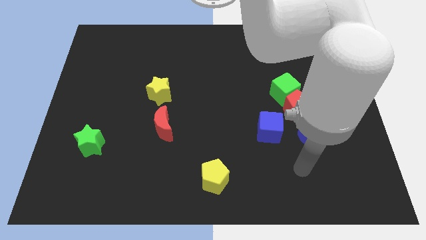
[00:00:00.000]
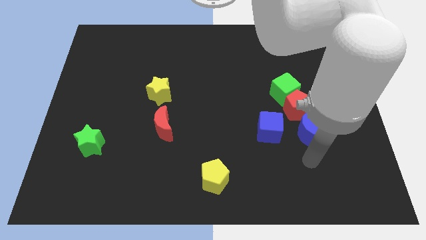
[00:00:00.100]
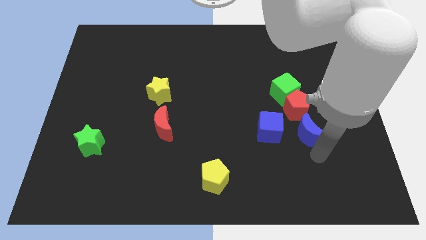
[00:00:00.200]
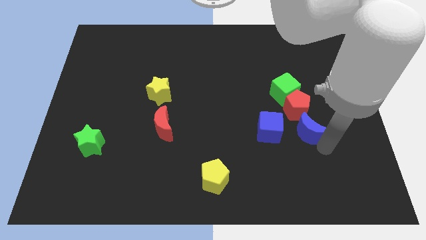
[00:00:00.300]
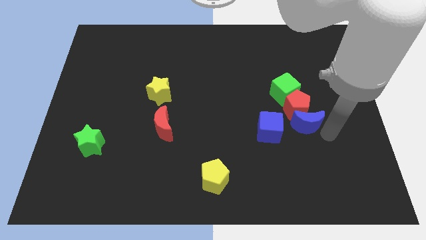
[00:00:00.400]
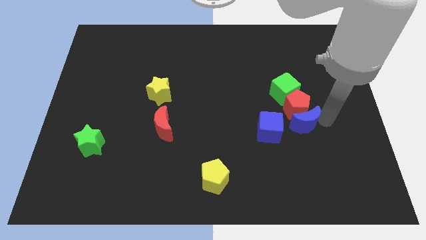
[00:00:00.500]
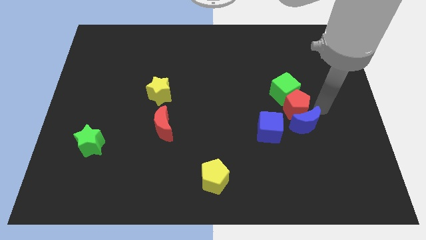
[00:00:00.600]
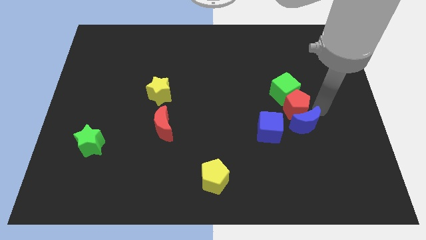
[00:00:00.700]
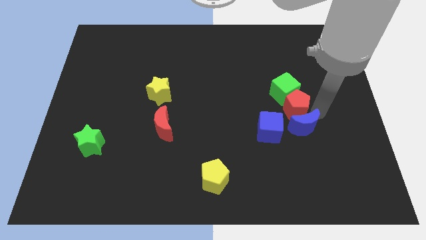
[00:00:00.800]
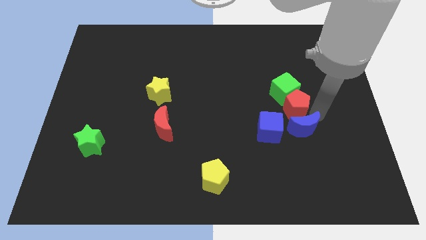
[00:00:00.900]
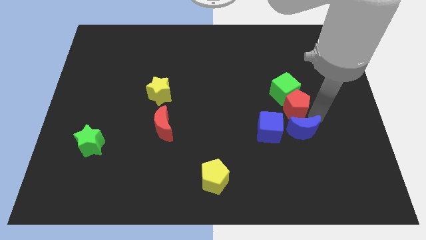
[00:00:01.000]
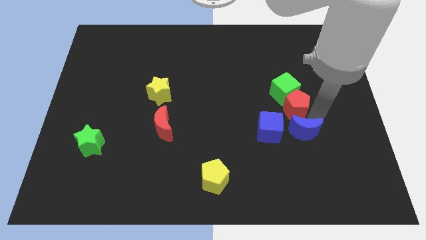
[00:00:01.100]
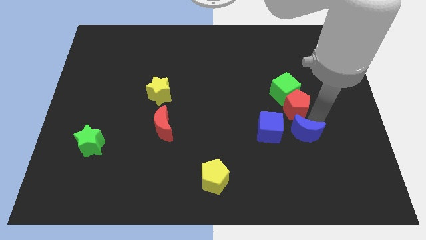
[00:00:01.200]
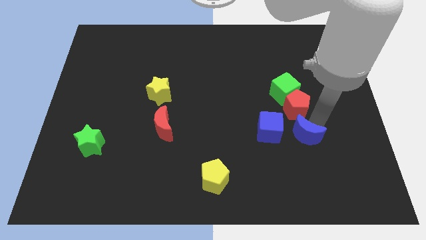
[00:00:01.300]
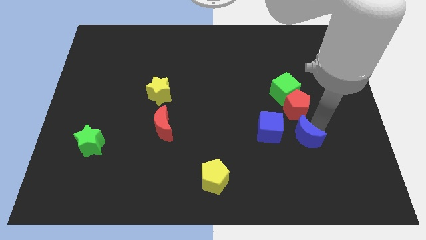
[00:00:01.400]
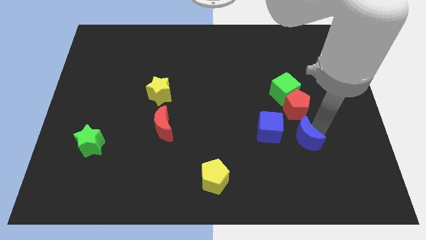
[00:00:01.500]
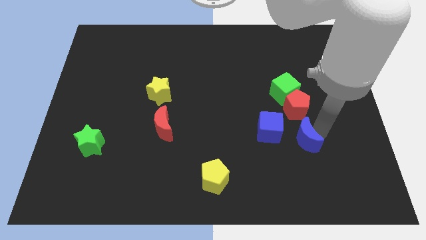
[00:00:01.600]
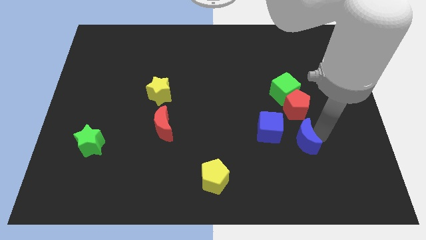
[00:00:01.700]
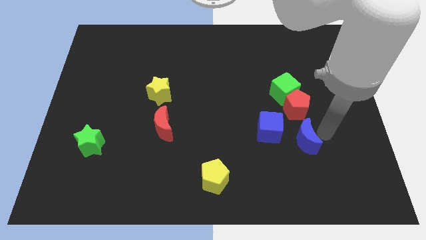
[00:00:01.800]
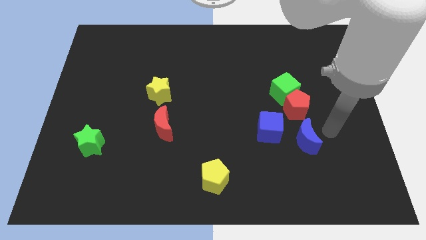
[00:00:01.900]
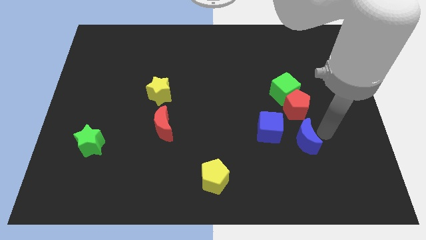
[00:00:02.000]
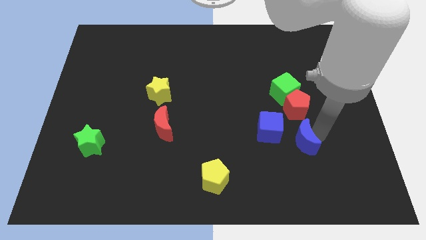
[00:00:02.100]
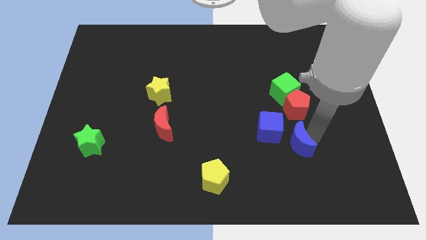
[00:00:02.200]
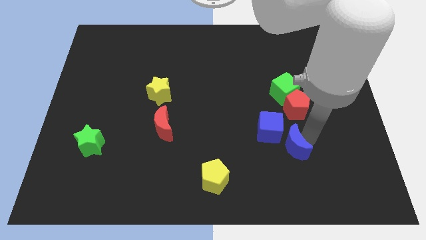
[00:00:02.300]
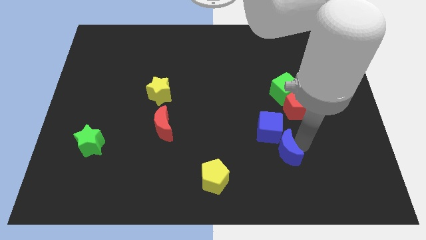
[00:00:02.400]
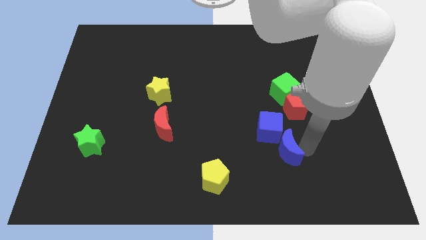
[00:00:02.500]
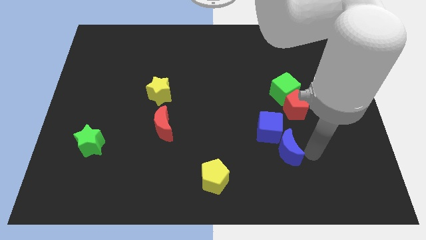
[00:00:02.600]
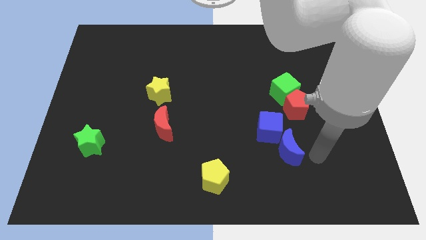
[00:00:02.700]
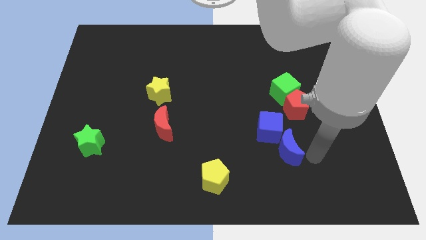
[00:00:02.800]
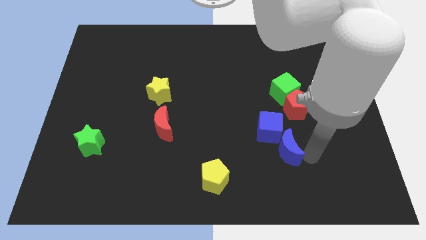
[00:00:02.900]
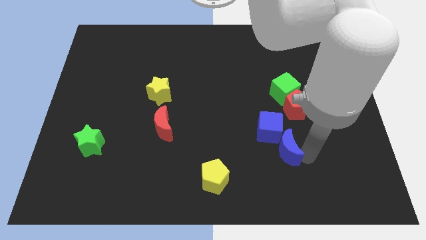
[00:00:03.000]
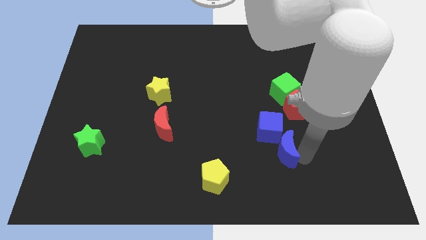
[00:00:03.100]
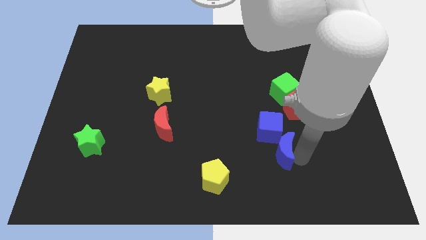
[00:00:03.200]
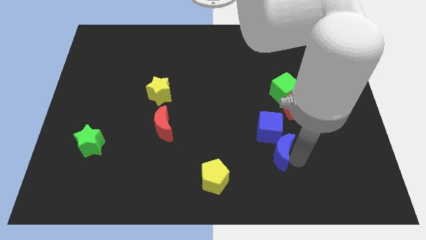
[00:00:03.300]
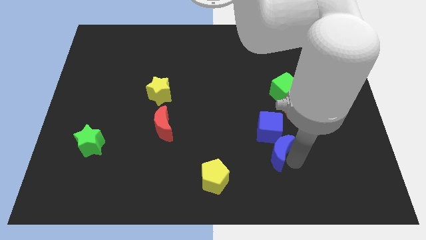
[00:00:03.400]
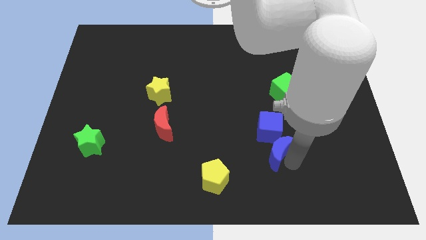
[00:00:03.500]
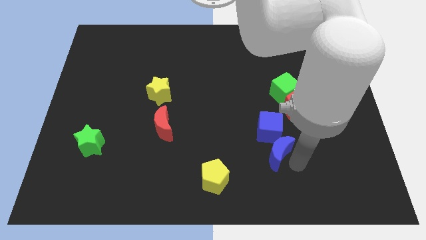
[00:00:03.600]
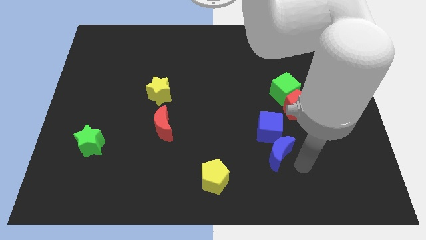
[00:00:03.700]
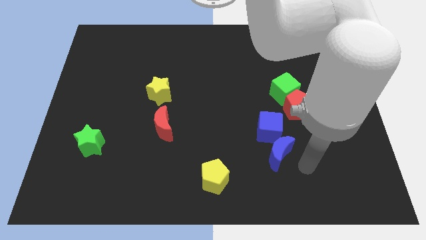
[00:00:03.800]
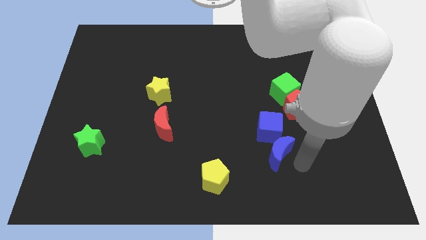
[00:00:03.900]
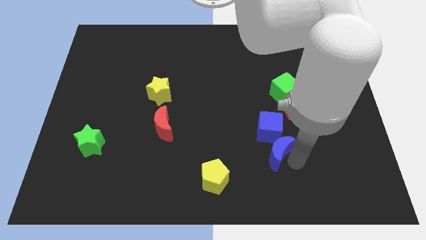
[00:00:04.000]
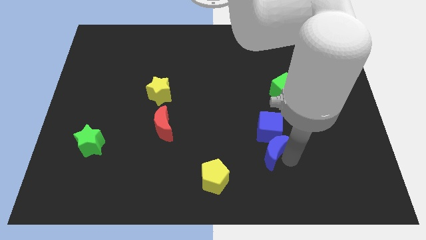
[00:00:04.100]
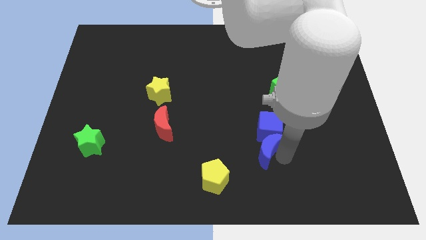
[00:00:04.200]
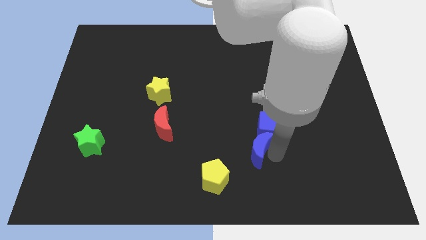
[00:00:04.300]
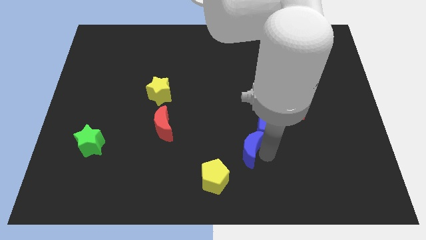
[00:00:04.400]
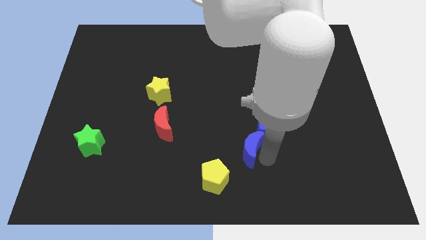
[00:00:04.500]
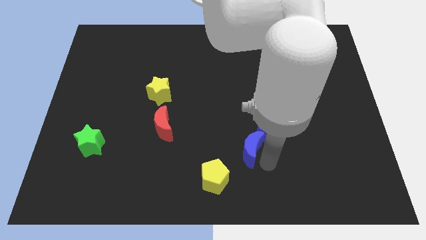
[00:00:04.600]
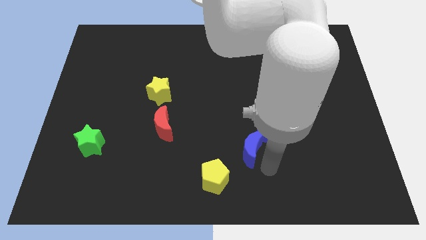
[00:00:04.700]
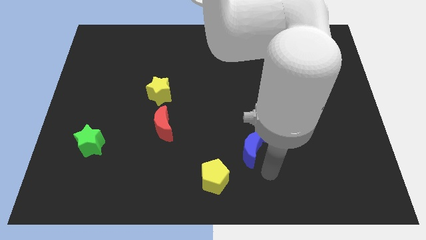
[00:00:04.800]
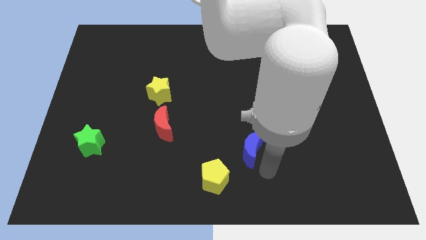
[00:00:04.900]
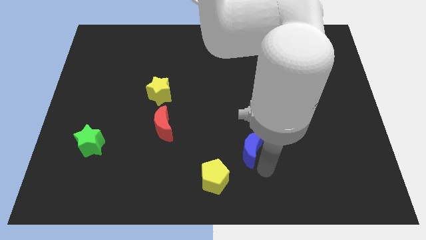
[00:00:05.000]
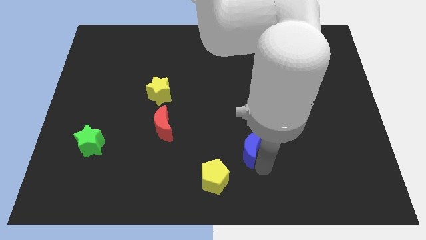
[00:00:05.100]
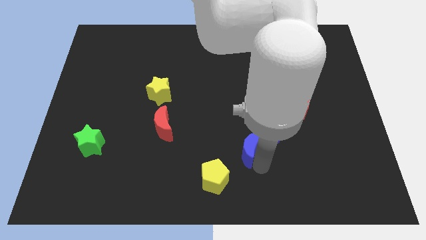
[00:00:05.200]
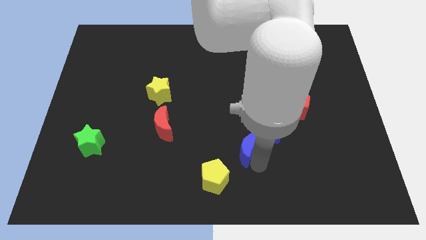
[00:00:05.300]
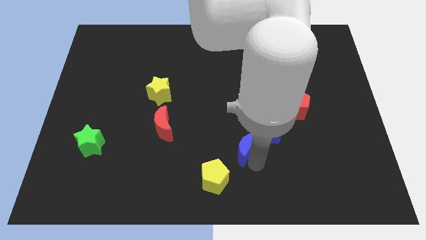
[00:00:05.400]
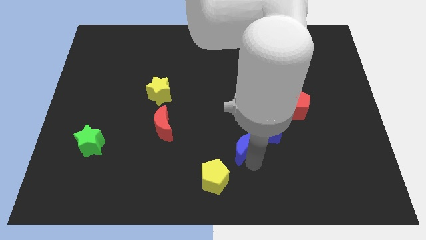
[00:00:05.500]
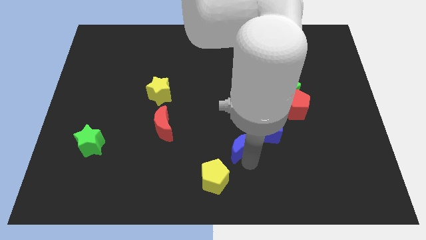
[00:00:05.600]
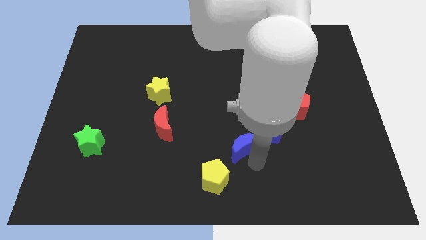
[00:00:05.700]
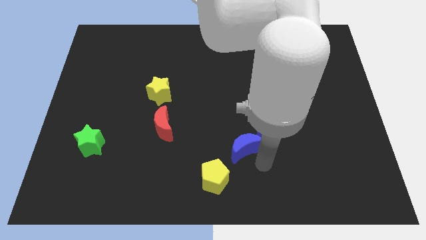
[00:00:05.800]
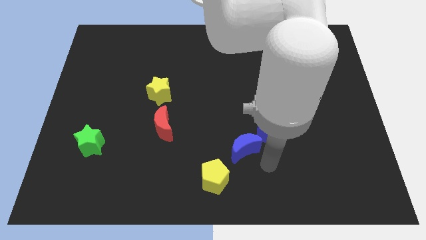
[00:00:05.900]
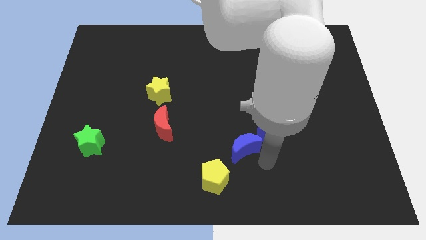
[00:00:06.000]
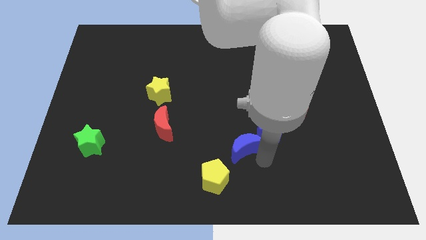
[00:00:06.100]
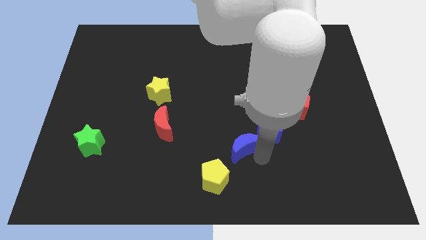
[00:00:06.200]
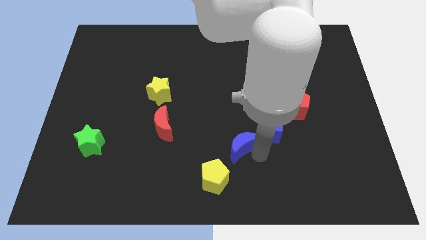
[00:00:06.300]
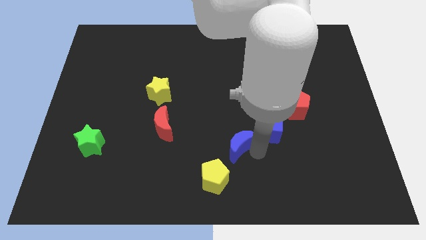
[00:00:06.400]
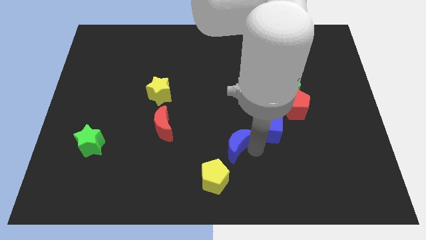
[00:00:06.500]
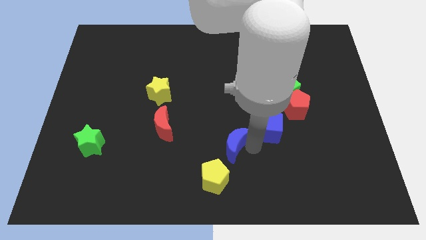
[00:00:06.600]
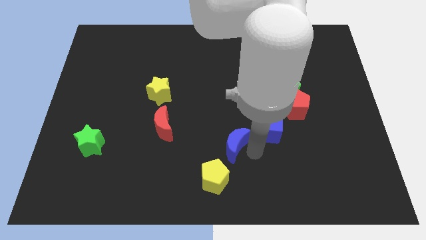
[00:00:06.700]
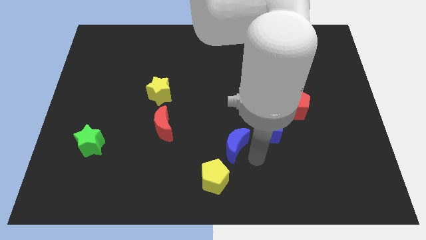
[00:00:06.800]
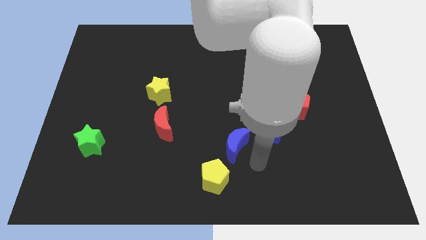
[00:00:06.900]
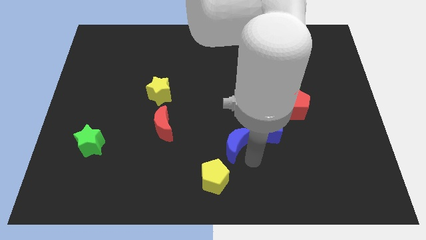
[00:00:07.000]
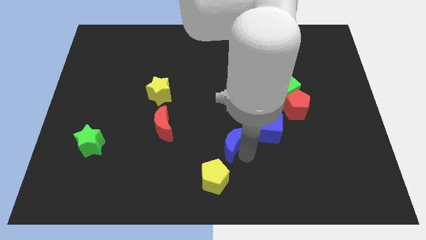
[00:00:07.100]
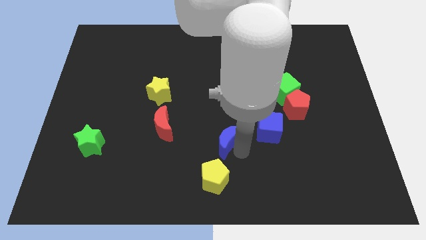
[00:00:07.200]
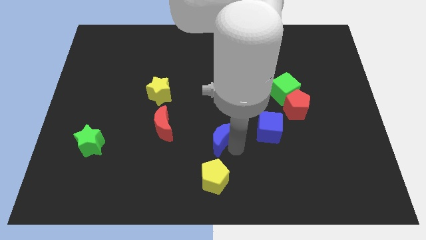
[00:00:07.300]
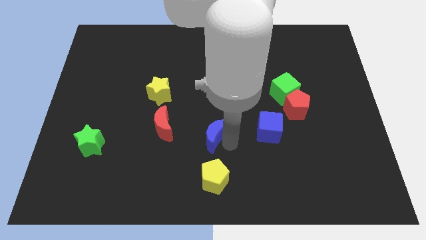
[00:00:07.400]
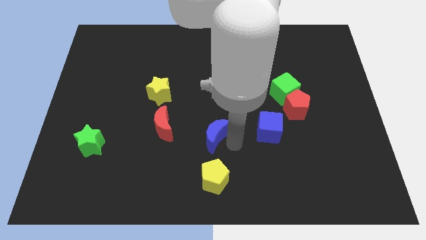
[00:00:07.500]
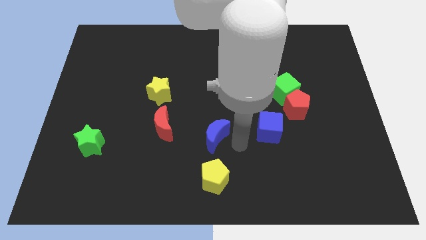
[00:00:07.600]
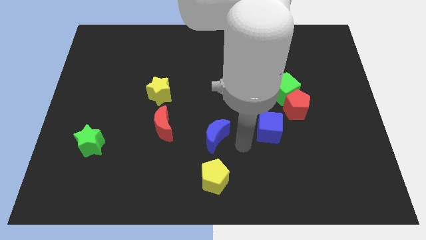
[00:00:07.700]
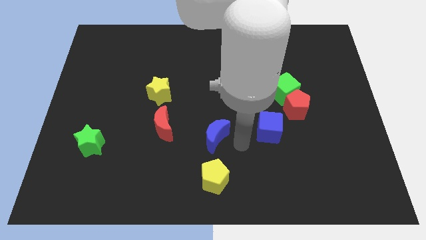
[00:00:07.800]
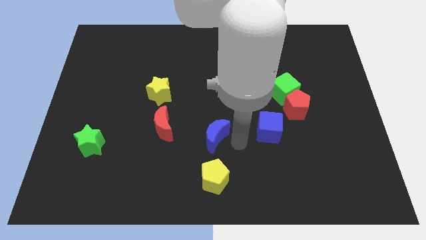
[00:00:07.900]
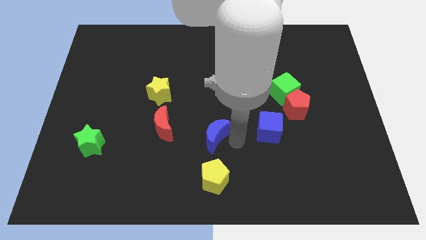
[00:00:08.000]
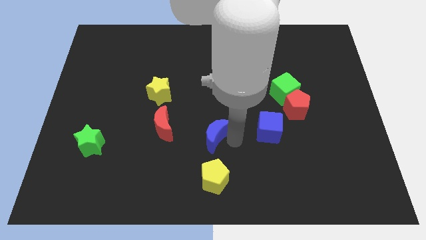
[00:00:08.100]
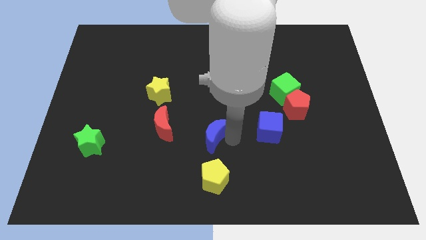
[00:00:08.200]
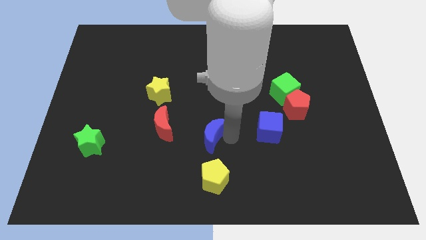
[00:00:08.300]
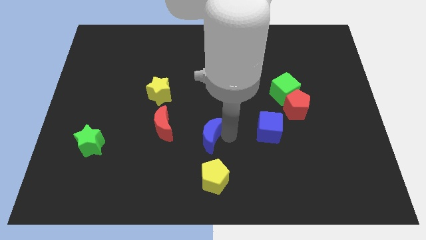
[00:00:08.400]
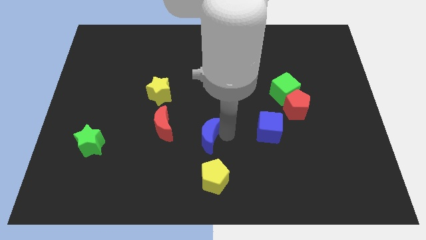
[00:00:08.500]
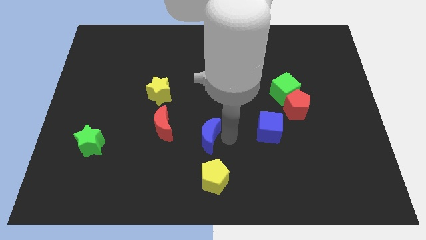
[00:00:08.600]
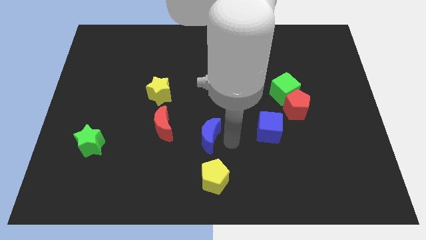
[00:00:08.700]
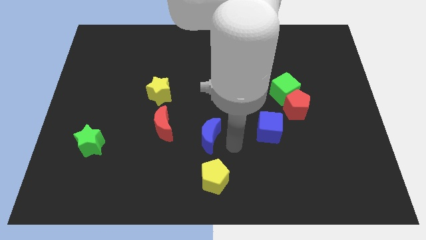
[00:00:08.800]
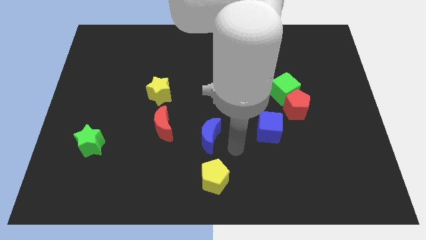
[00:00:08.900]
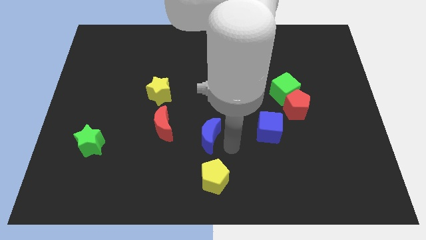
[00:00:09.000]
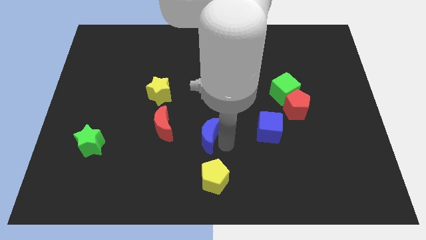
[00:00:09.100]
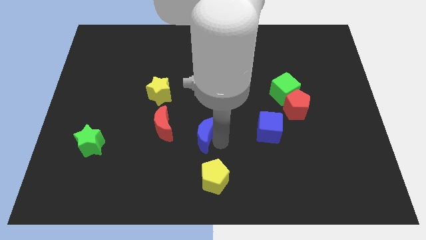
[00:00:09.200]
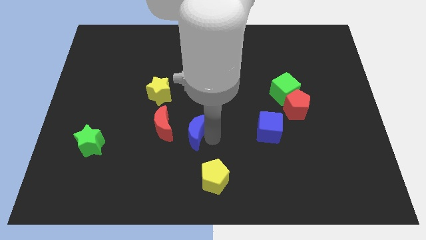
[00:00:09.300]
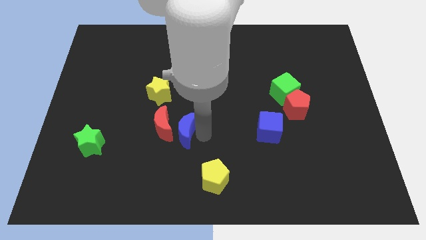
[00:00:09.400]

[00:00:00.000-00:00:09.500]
push the blue moon towards the red moon
